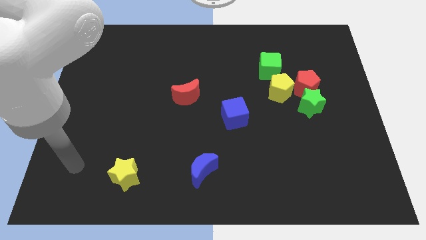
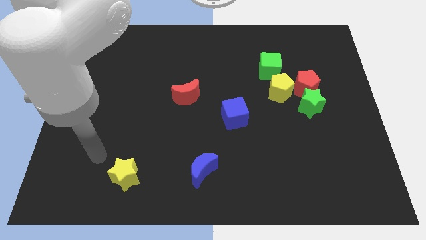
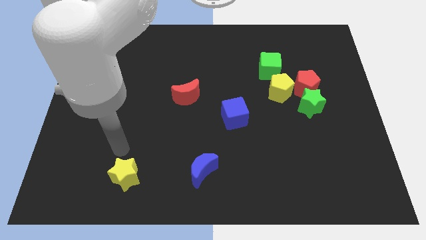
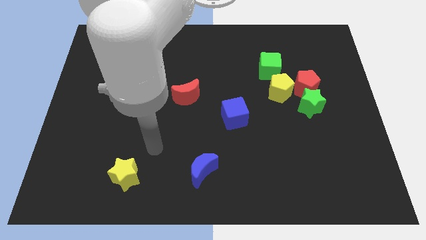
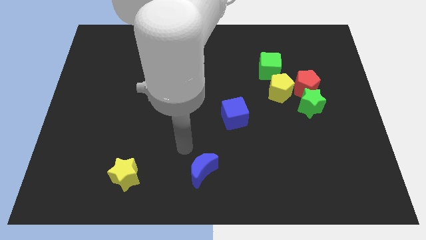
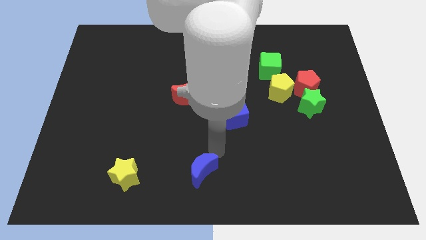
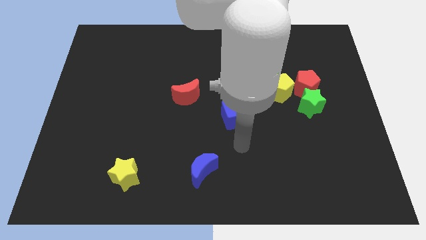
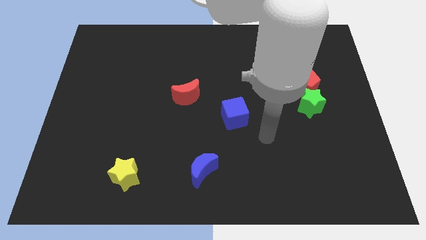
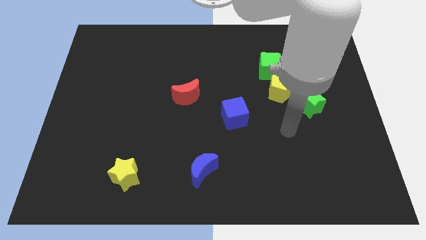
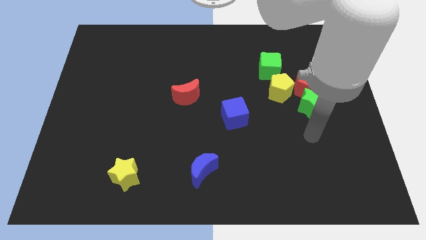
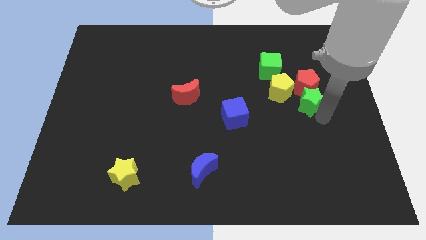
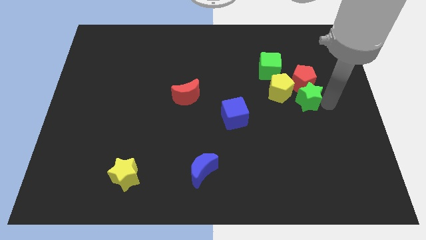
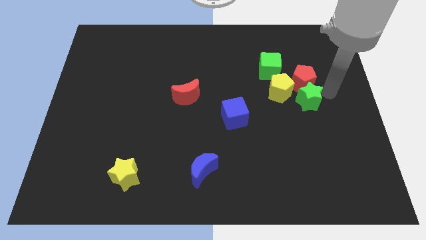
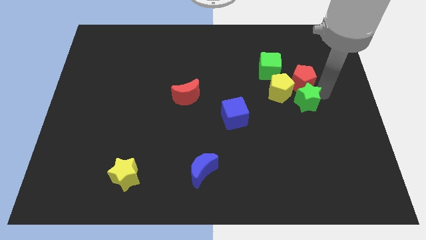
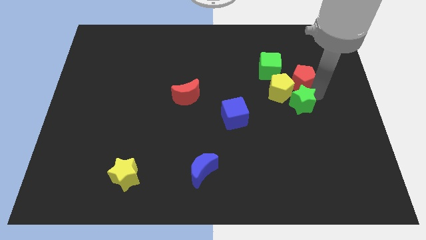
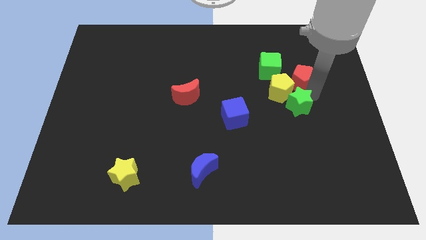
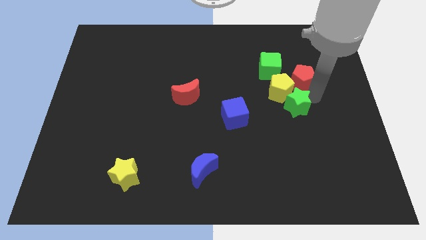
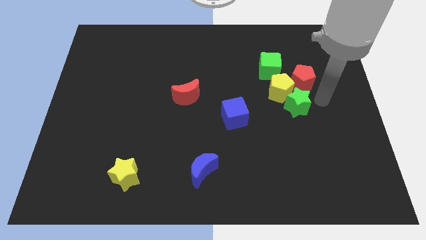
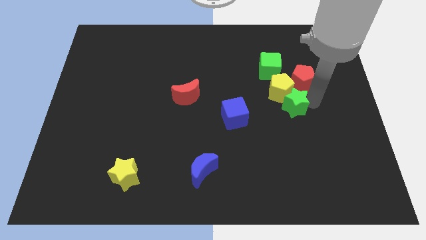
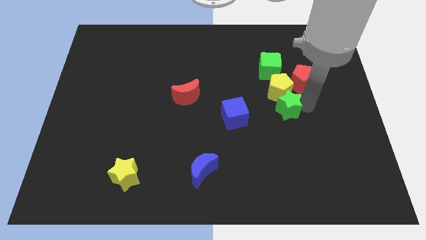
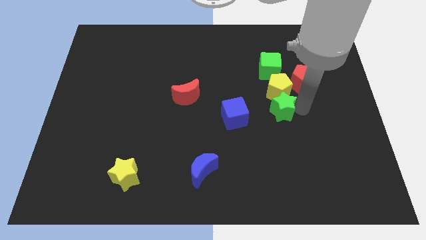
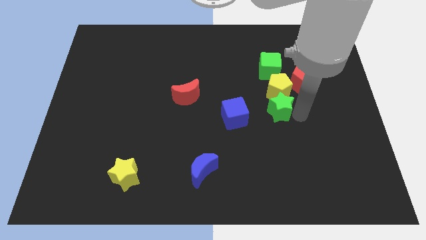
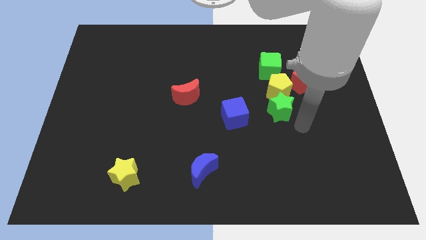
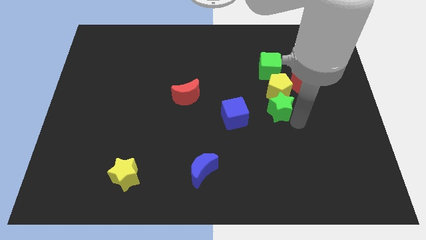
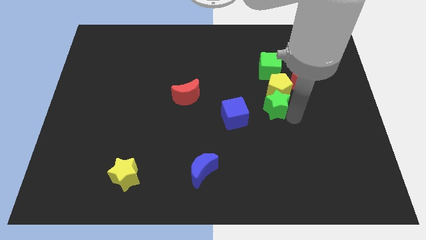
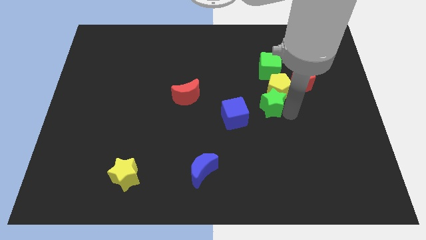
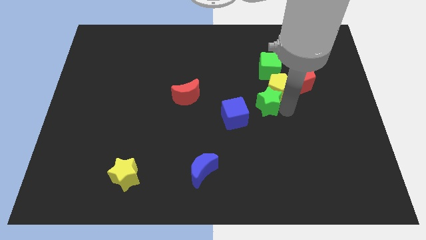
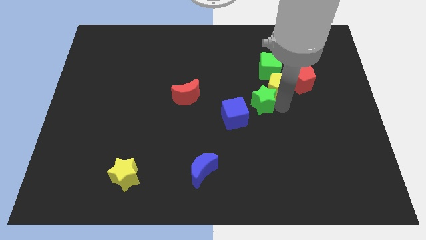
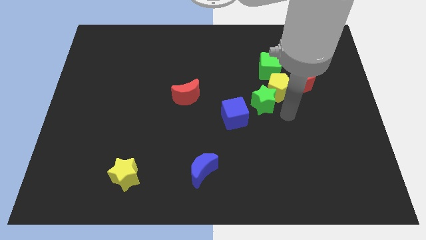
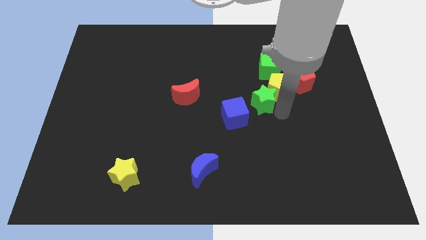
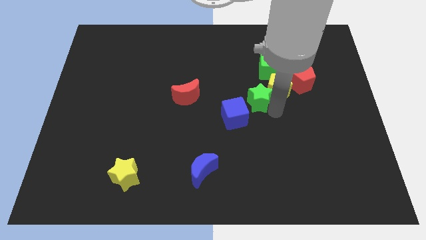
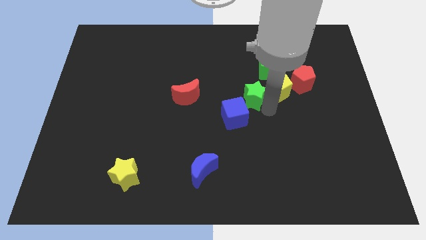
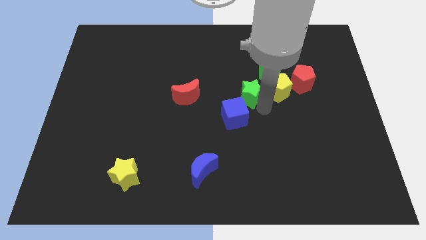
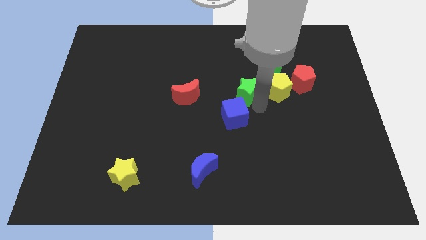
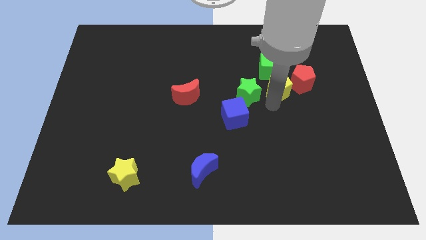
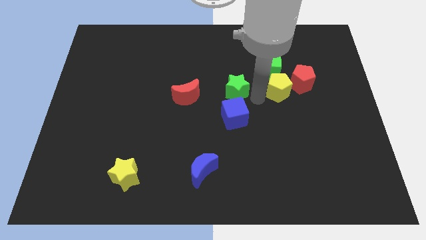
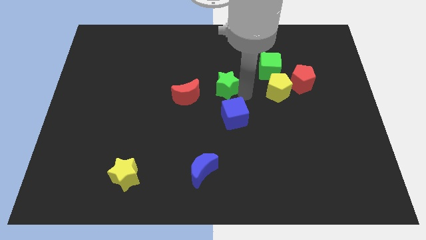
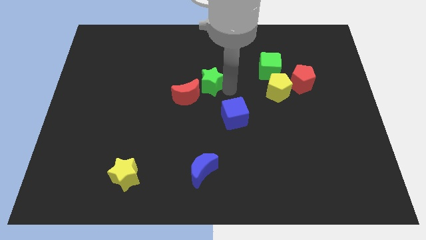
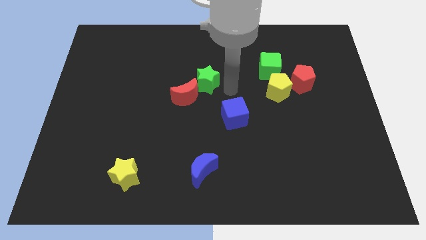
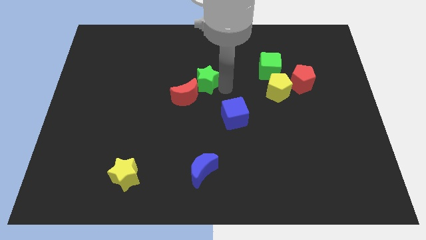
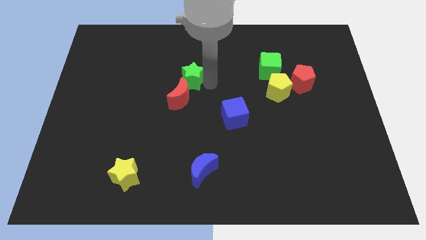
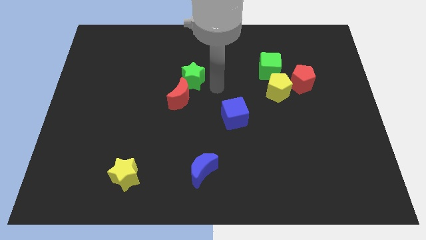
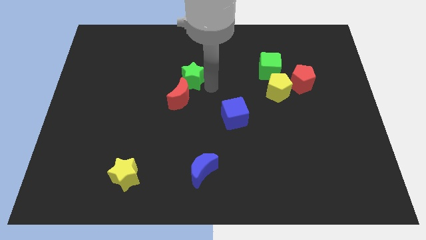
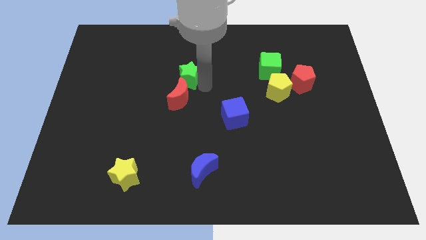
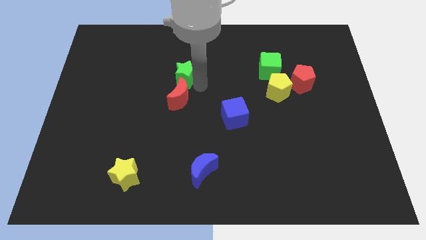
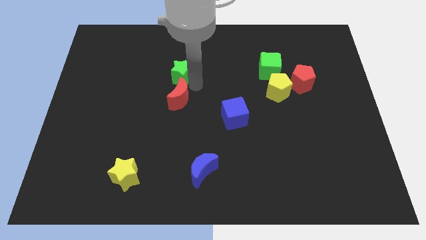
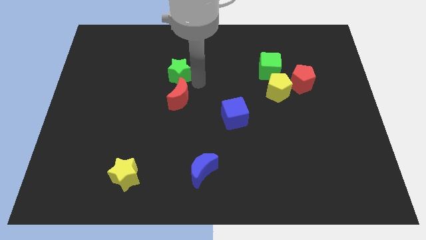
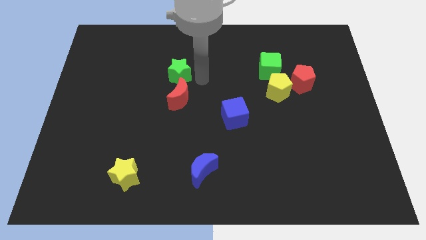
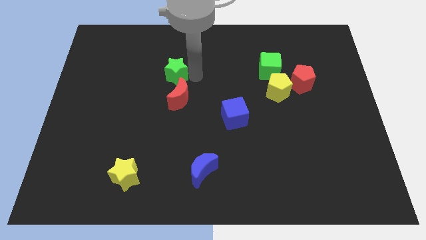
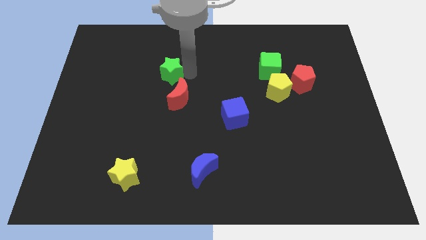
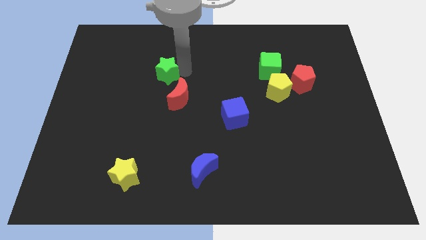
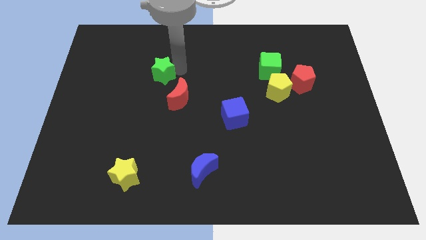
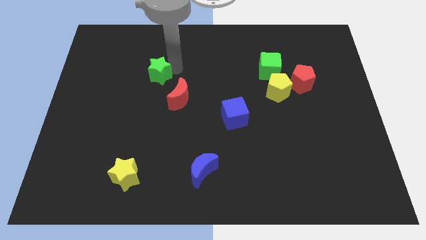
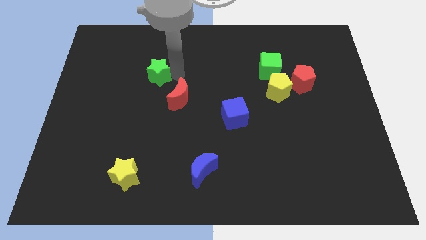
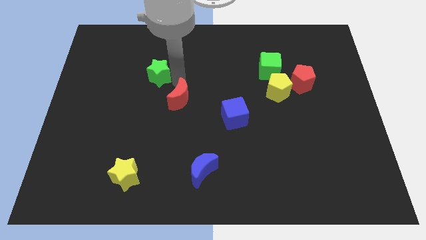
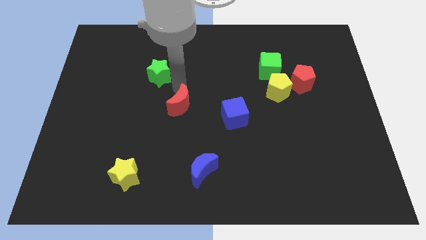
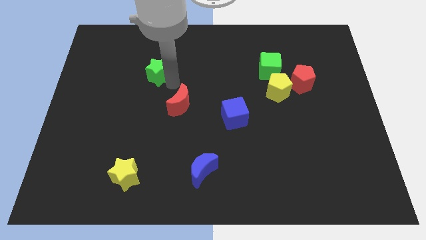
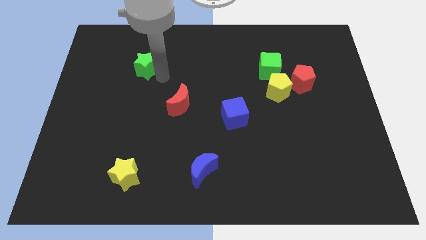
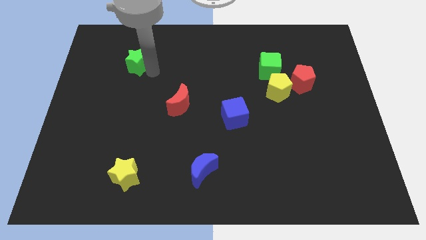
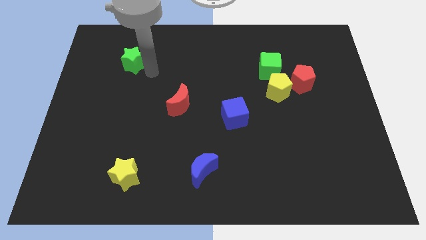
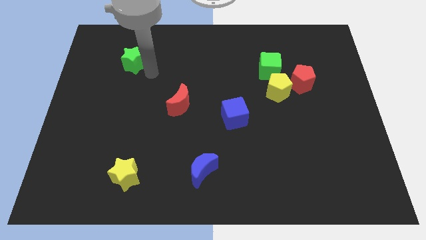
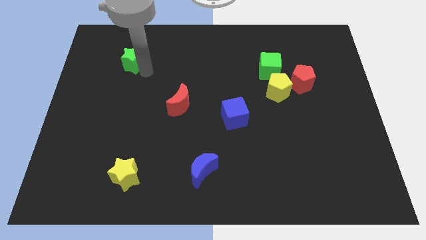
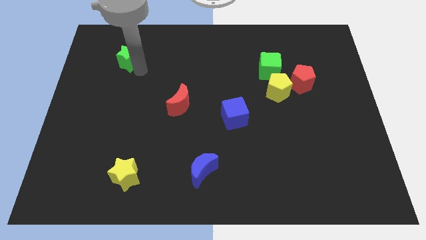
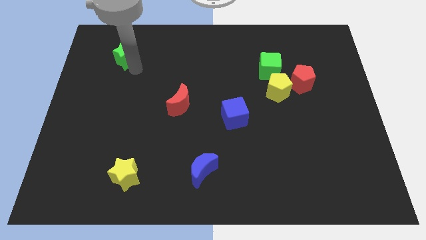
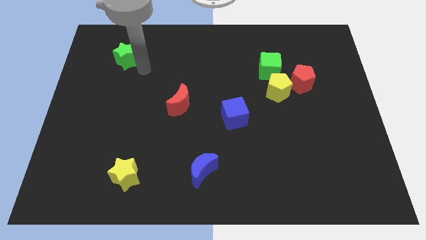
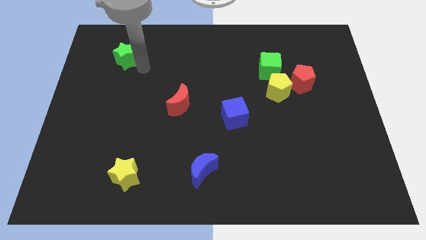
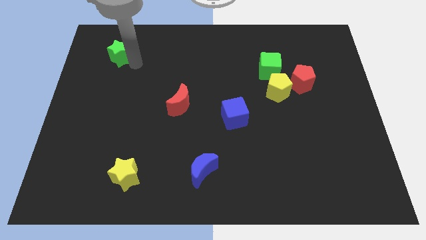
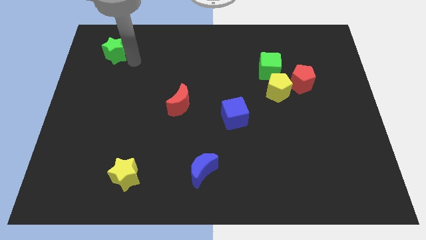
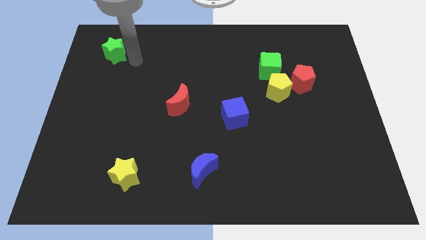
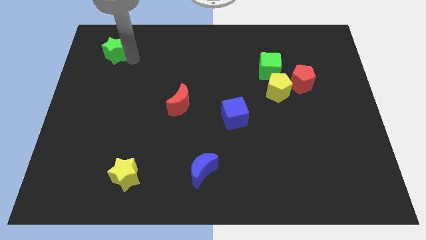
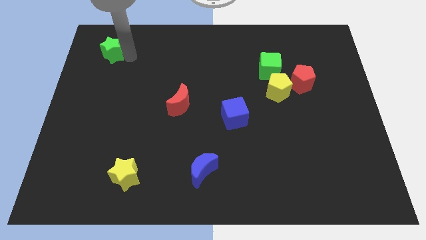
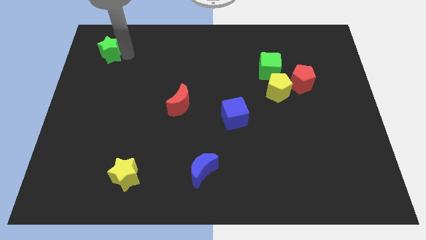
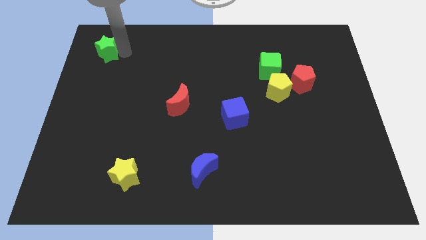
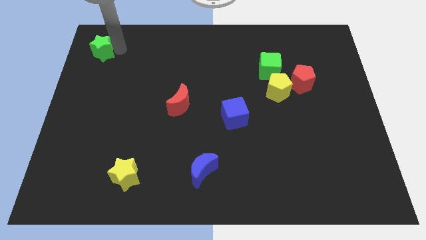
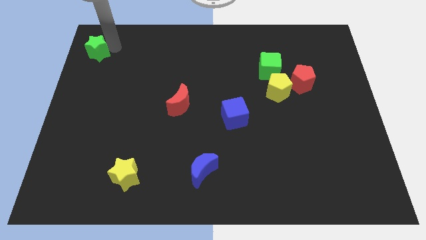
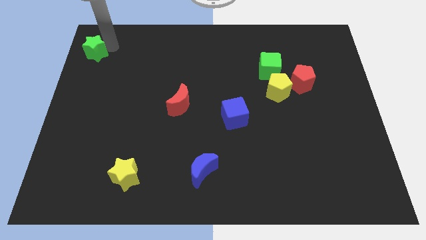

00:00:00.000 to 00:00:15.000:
slide the green star to the top left
